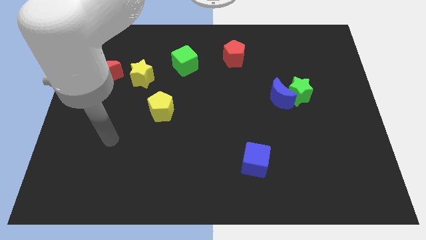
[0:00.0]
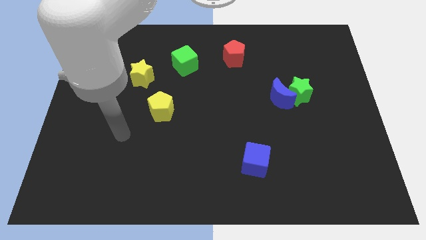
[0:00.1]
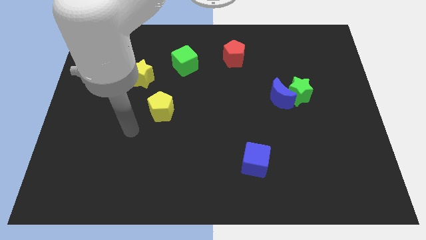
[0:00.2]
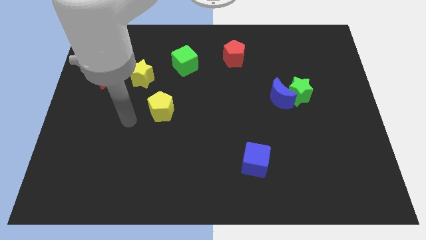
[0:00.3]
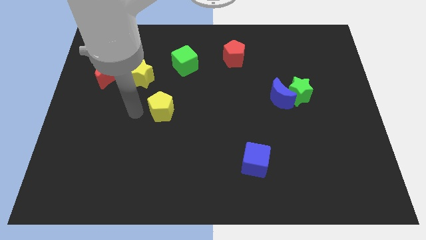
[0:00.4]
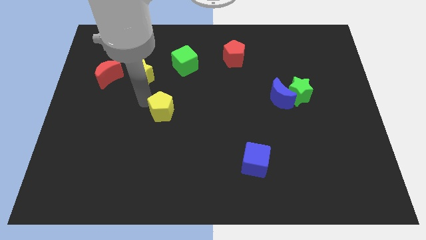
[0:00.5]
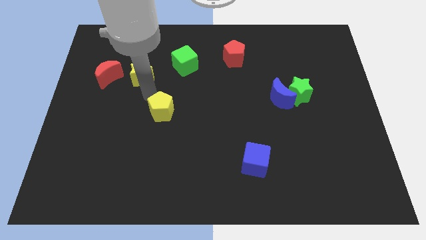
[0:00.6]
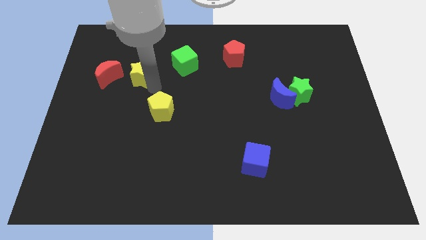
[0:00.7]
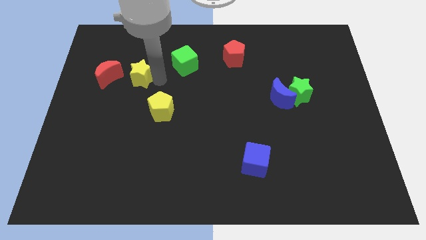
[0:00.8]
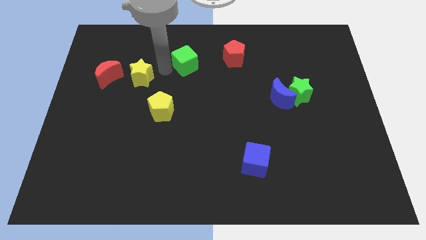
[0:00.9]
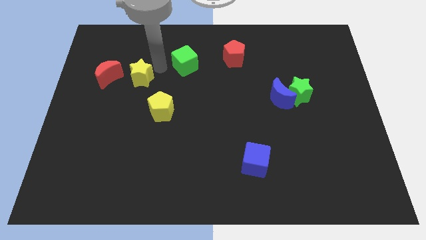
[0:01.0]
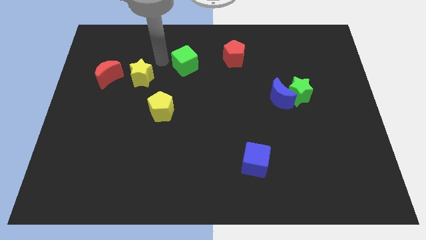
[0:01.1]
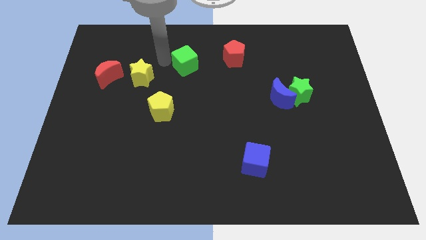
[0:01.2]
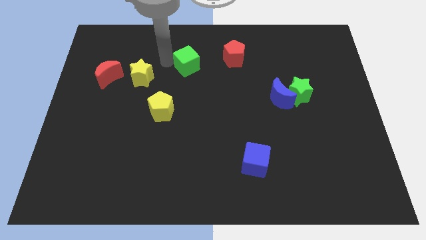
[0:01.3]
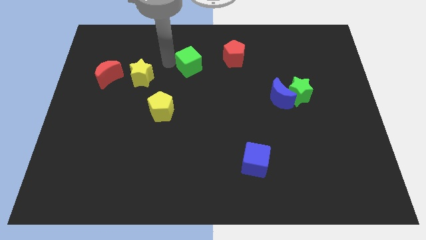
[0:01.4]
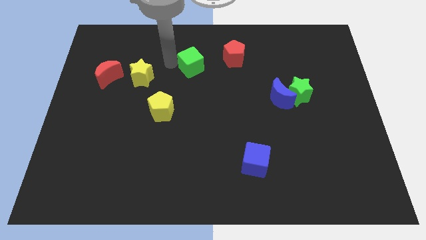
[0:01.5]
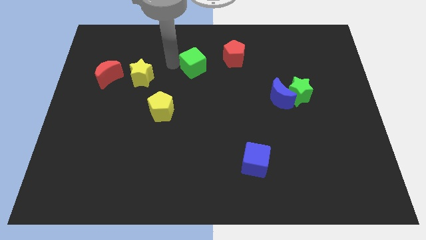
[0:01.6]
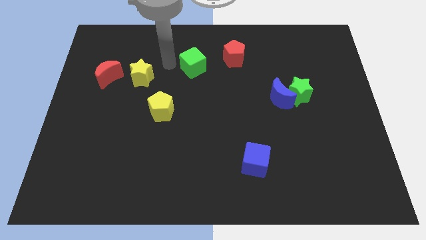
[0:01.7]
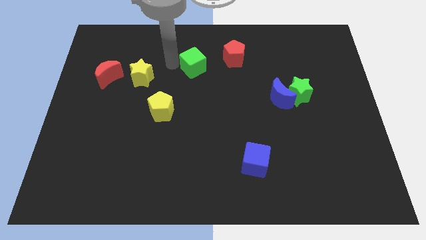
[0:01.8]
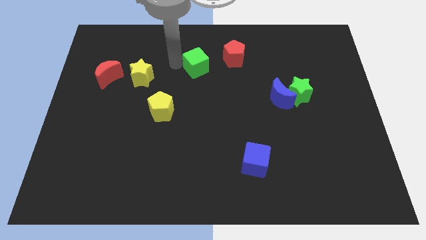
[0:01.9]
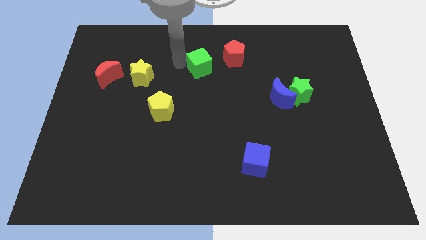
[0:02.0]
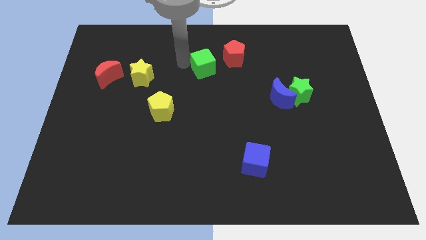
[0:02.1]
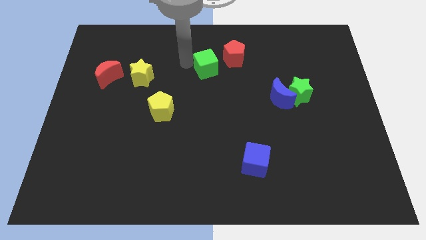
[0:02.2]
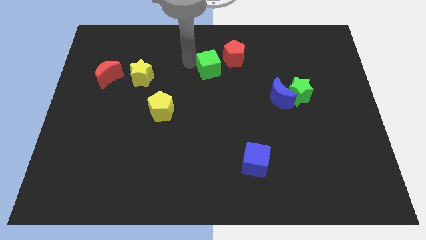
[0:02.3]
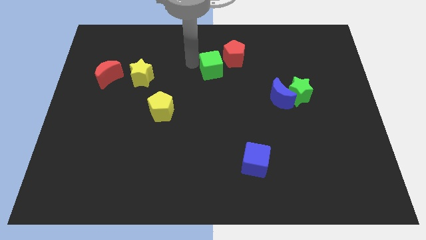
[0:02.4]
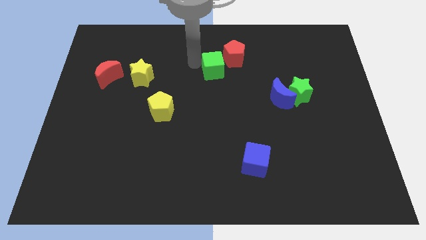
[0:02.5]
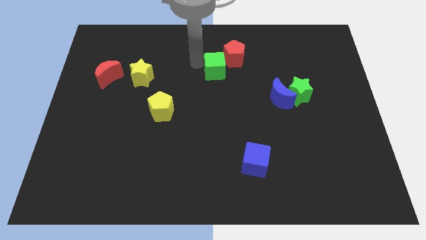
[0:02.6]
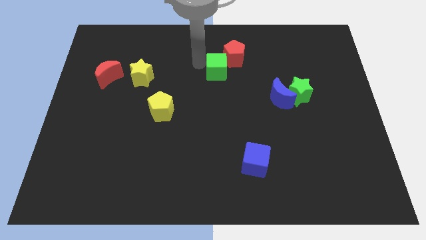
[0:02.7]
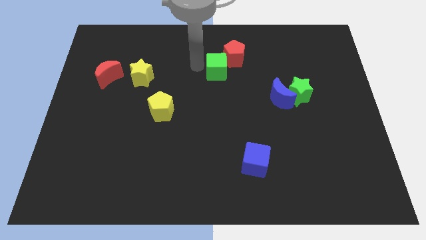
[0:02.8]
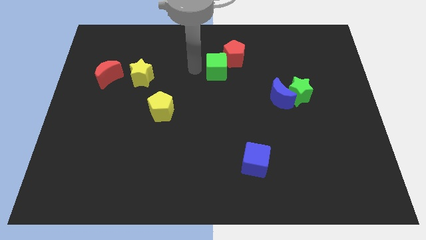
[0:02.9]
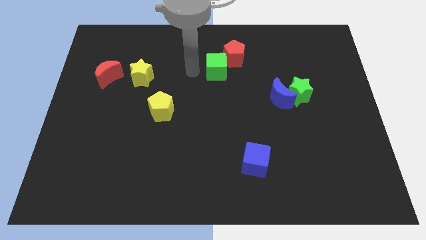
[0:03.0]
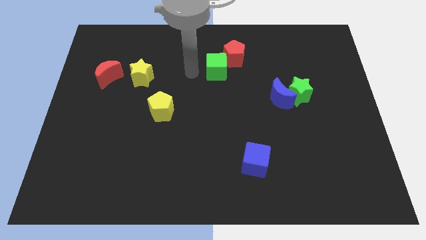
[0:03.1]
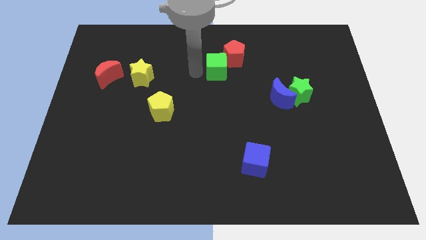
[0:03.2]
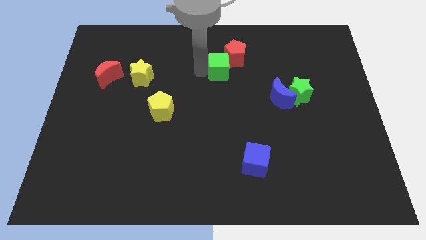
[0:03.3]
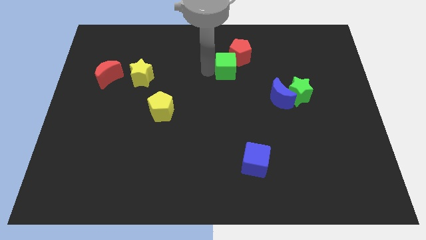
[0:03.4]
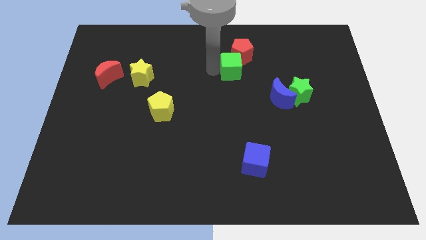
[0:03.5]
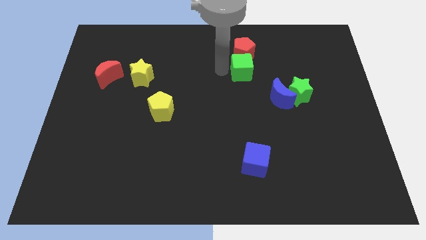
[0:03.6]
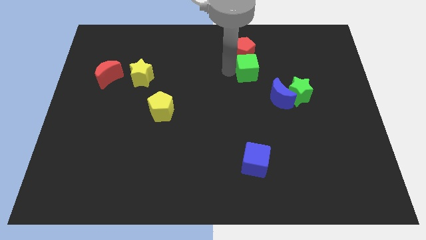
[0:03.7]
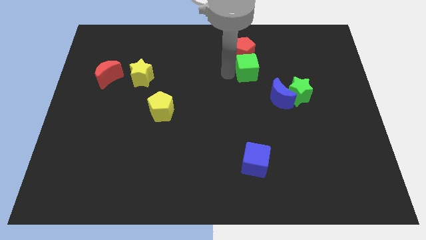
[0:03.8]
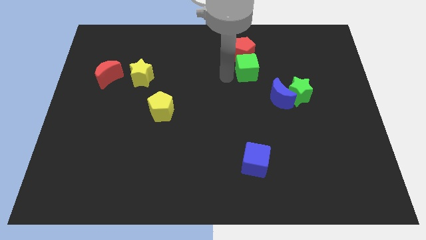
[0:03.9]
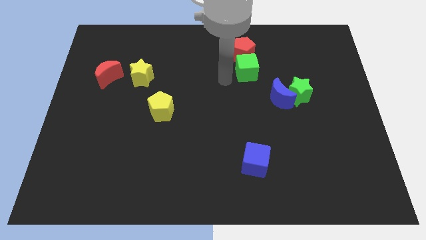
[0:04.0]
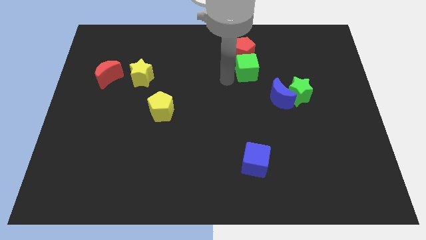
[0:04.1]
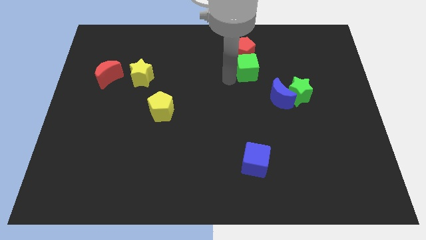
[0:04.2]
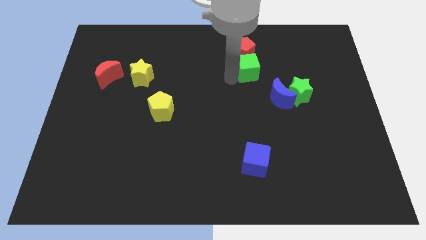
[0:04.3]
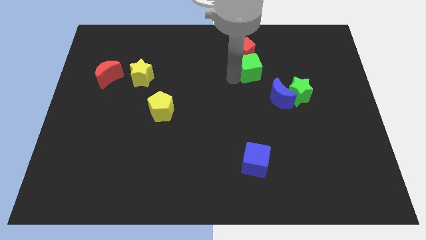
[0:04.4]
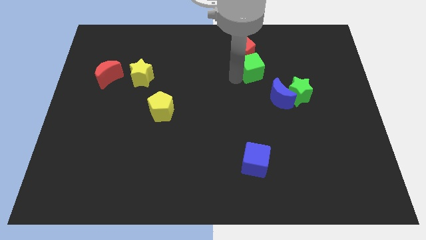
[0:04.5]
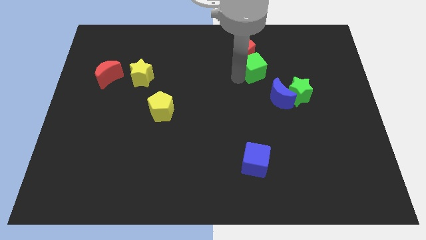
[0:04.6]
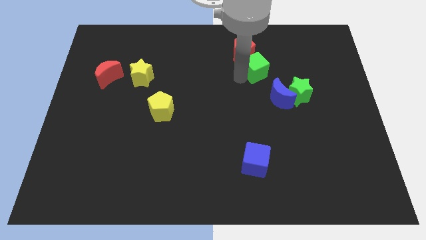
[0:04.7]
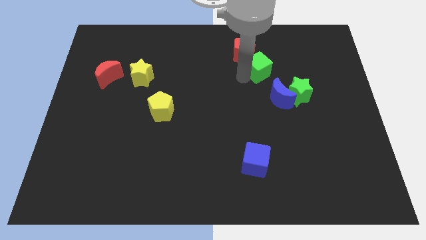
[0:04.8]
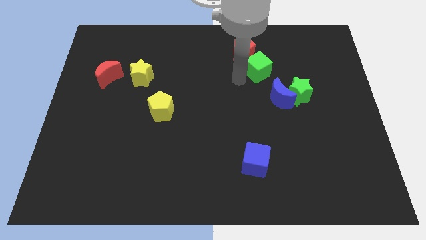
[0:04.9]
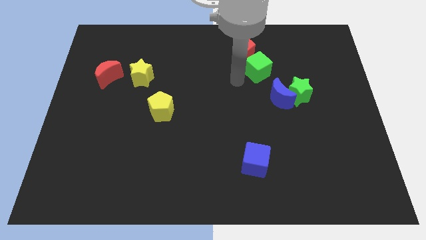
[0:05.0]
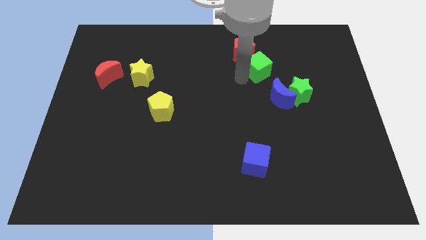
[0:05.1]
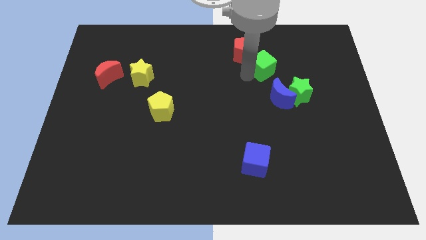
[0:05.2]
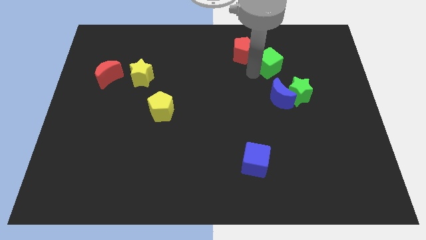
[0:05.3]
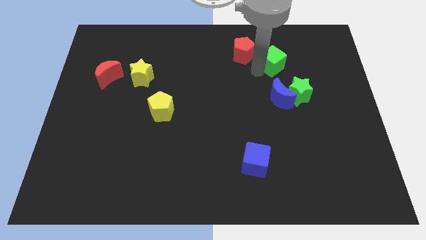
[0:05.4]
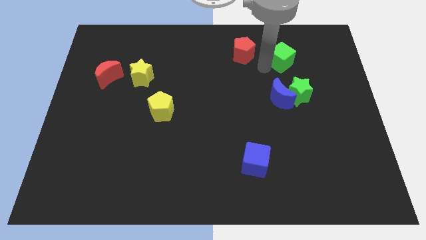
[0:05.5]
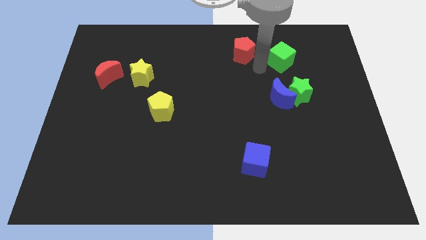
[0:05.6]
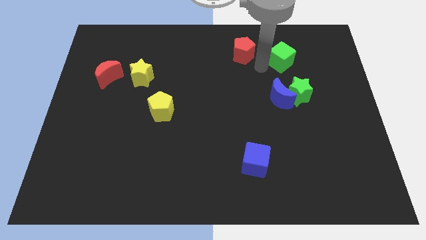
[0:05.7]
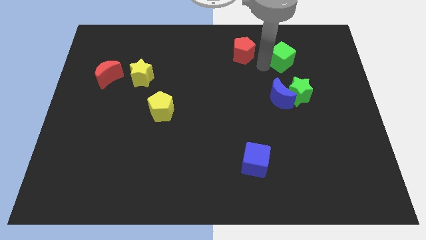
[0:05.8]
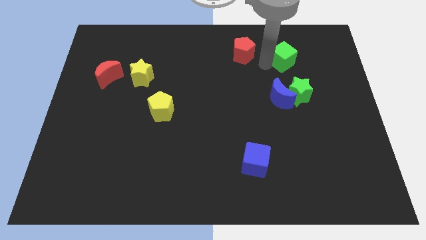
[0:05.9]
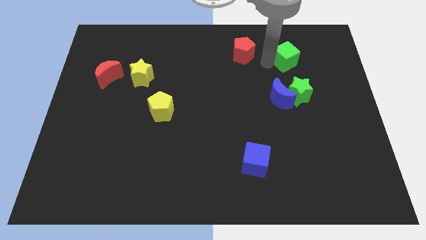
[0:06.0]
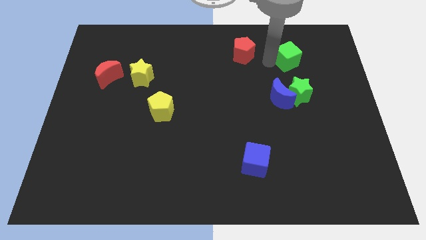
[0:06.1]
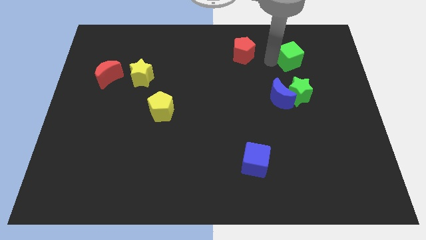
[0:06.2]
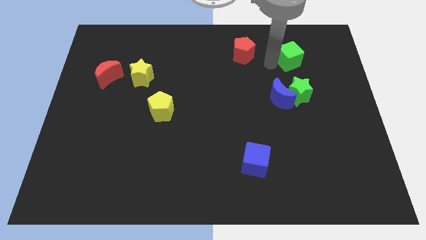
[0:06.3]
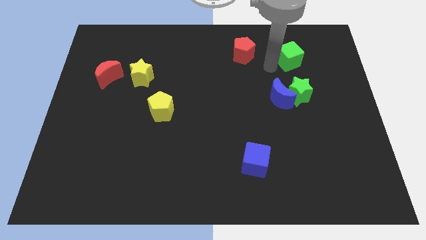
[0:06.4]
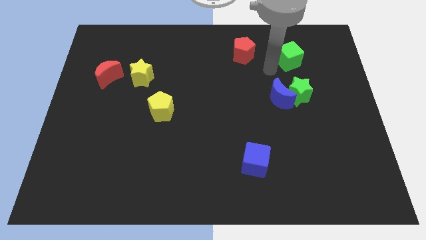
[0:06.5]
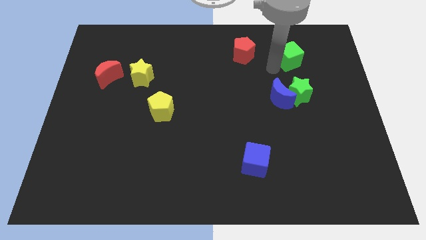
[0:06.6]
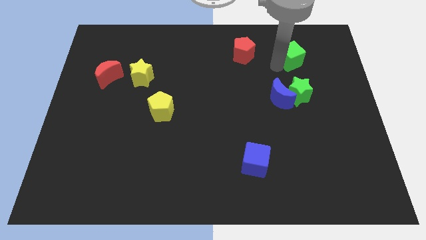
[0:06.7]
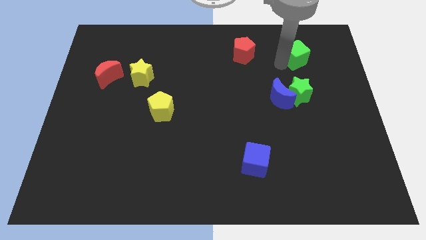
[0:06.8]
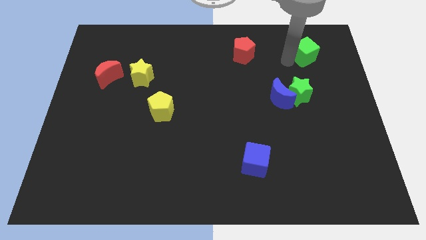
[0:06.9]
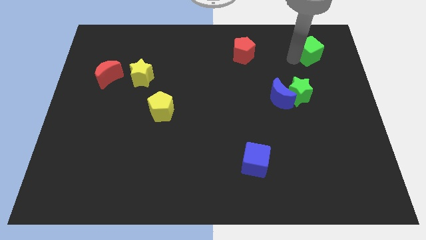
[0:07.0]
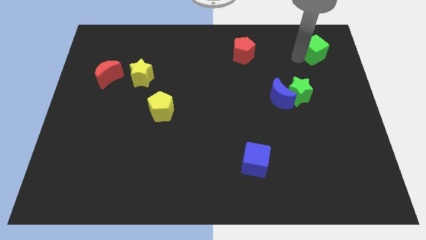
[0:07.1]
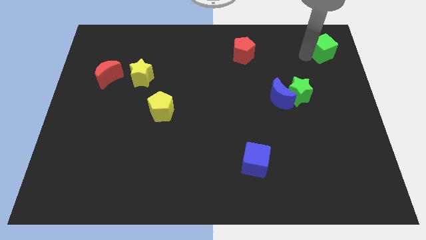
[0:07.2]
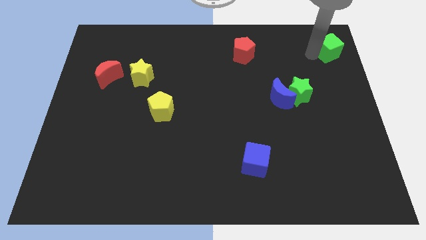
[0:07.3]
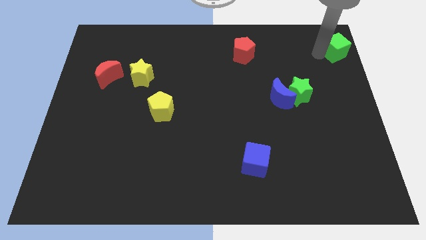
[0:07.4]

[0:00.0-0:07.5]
put the green cube to the top right
